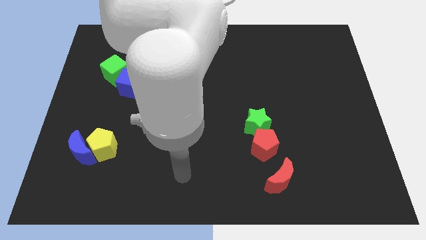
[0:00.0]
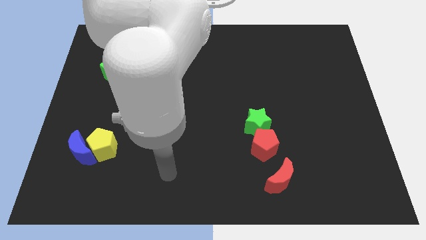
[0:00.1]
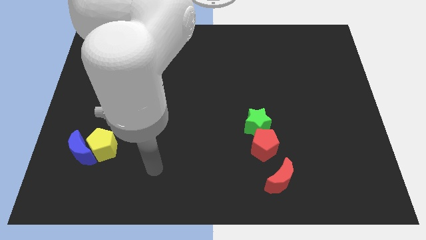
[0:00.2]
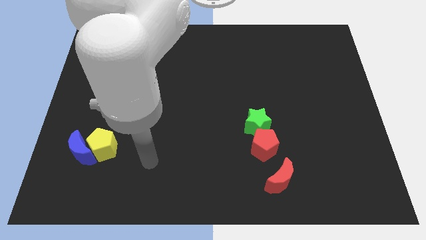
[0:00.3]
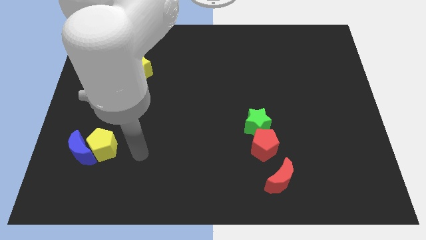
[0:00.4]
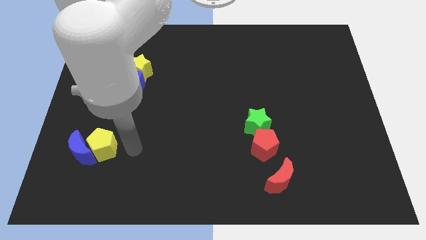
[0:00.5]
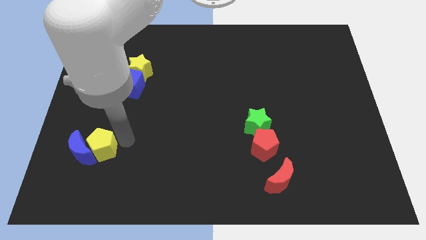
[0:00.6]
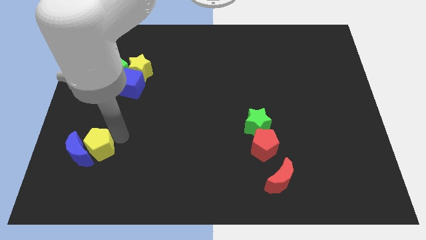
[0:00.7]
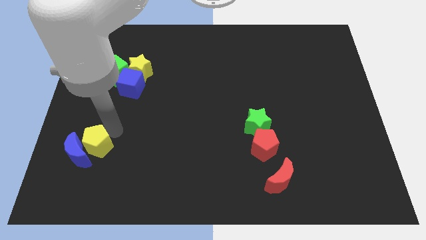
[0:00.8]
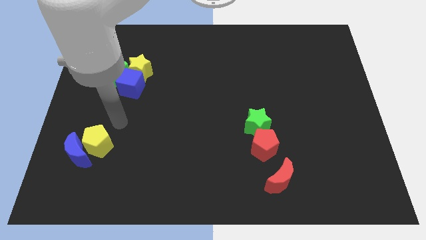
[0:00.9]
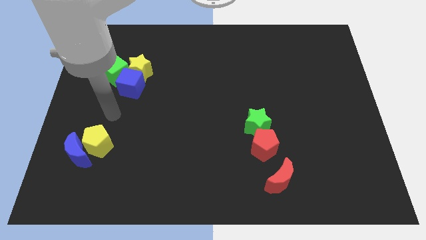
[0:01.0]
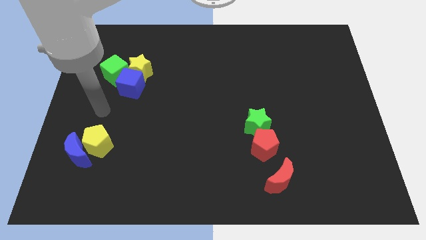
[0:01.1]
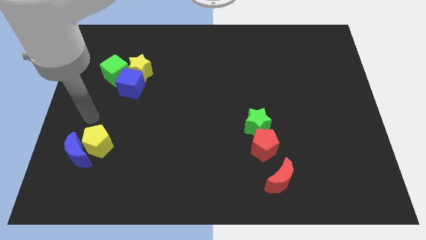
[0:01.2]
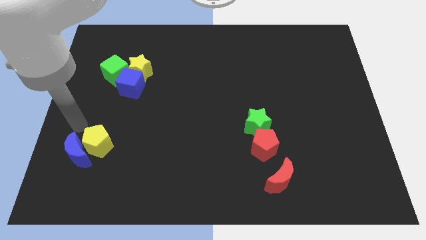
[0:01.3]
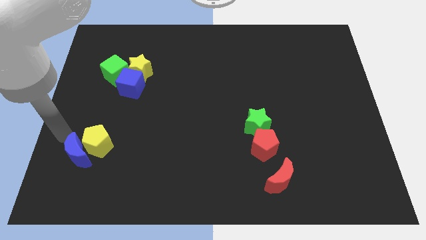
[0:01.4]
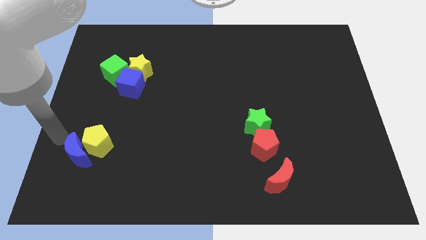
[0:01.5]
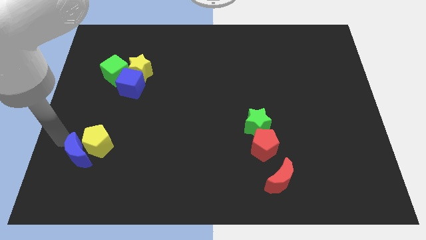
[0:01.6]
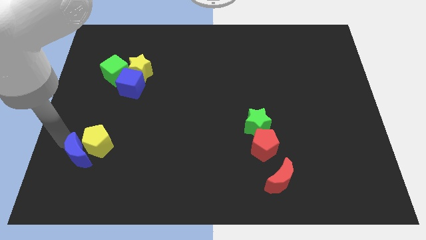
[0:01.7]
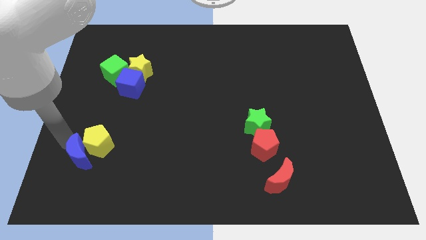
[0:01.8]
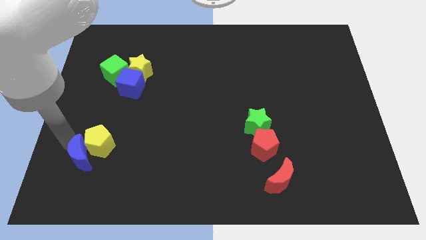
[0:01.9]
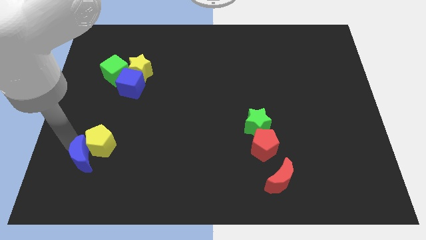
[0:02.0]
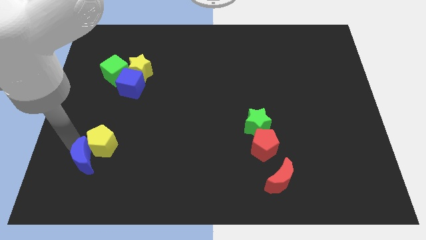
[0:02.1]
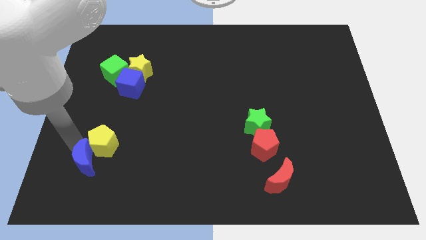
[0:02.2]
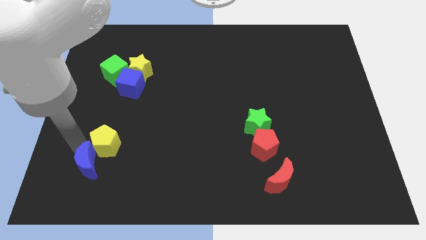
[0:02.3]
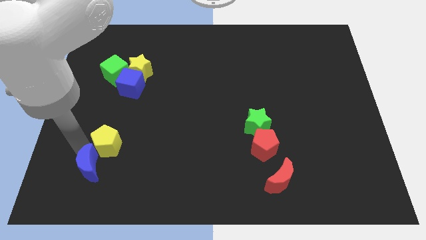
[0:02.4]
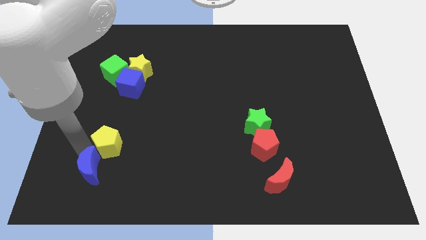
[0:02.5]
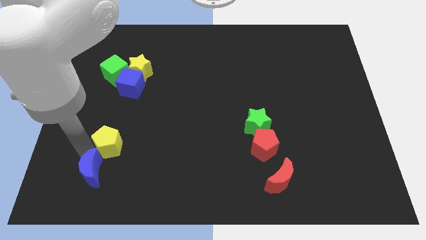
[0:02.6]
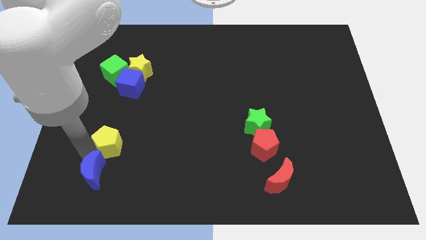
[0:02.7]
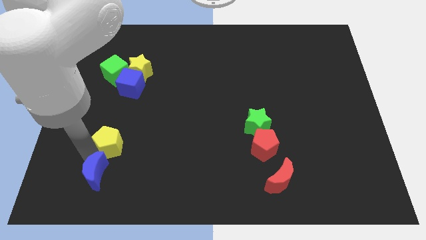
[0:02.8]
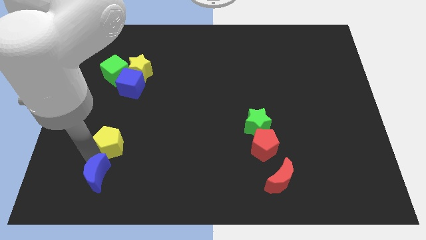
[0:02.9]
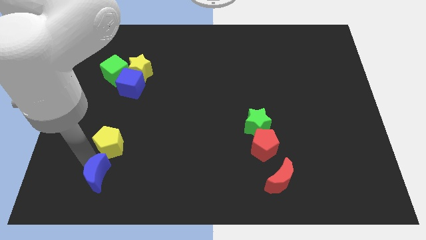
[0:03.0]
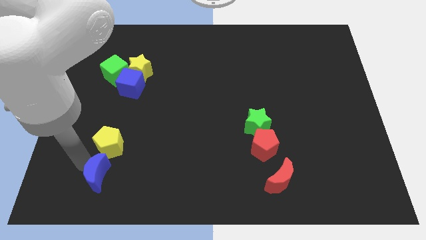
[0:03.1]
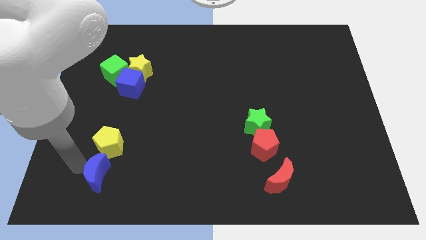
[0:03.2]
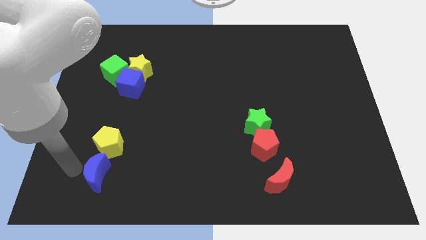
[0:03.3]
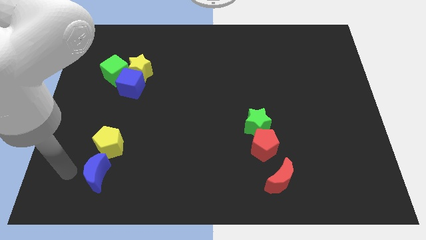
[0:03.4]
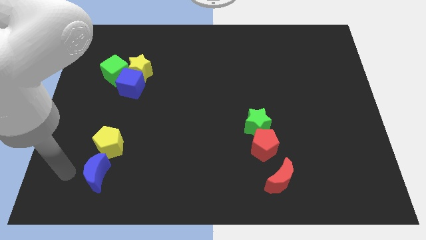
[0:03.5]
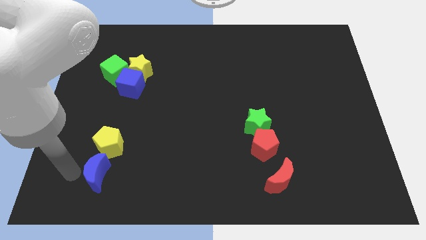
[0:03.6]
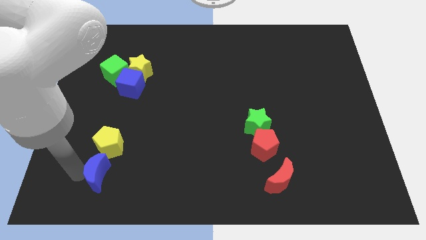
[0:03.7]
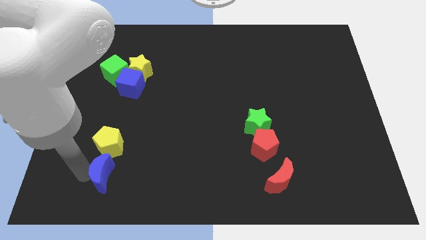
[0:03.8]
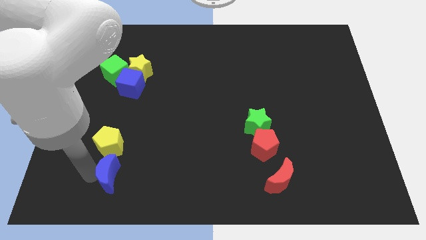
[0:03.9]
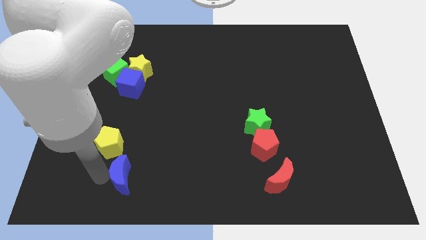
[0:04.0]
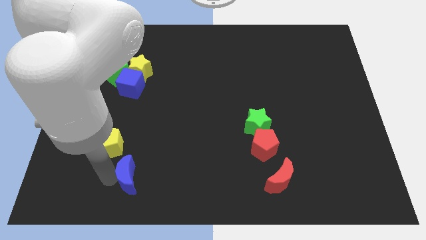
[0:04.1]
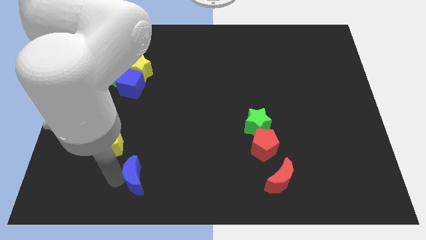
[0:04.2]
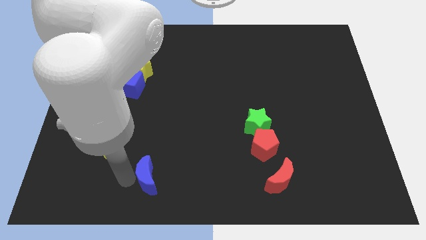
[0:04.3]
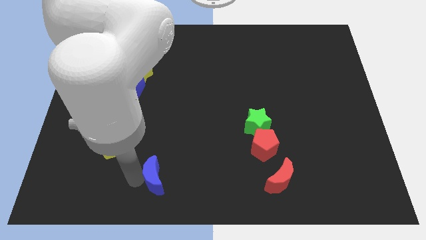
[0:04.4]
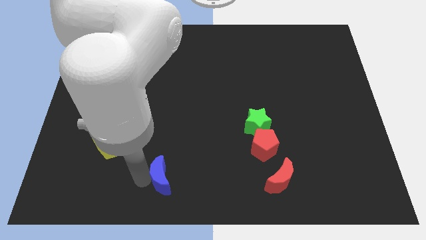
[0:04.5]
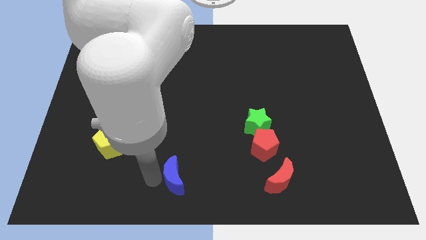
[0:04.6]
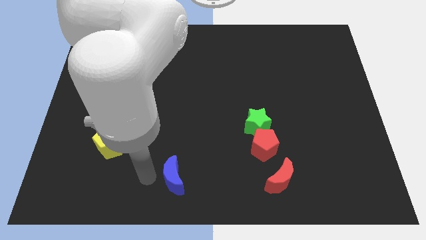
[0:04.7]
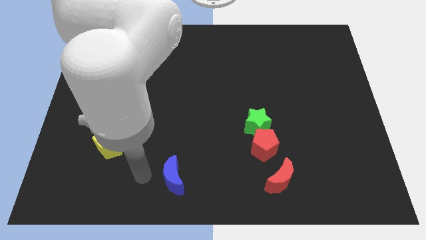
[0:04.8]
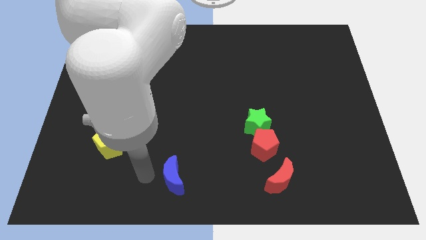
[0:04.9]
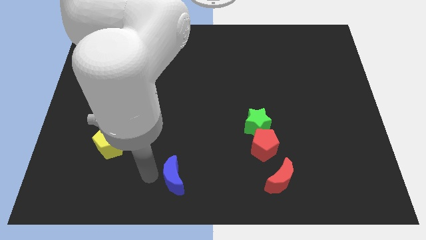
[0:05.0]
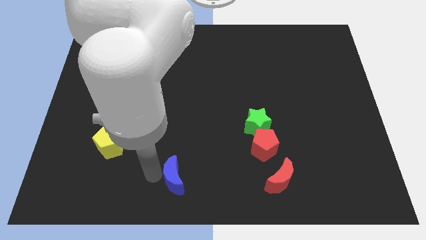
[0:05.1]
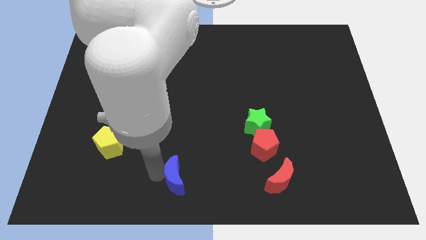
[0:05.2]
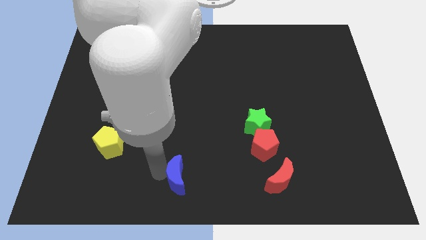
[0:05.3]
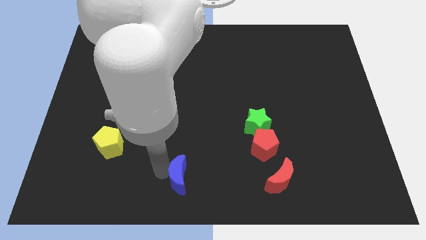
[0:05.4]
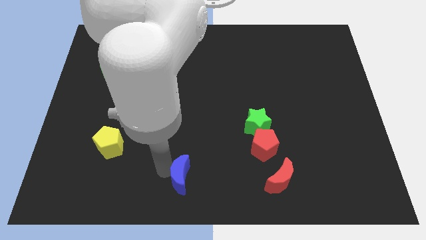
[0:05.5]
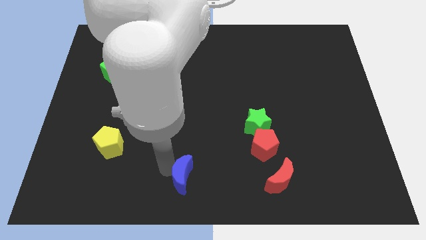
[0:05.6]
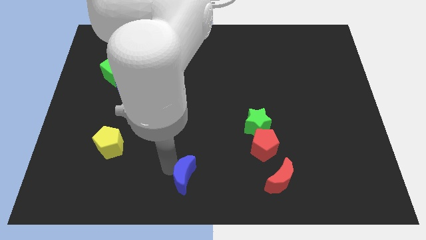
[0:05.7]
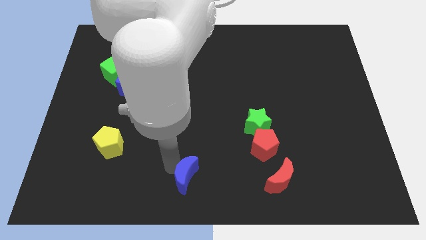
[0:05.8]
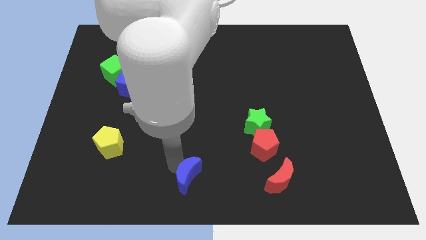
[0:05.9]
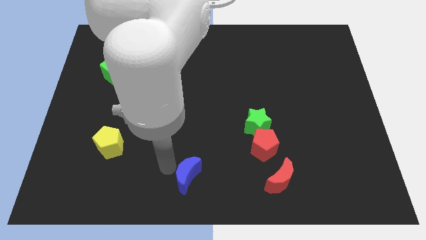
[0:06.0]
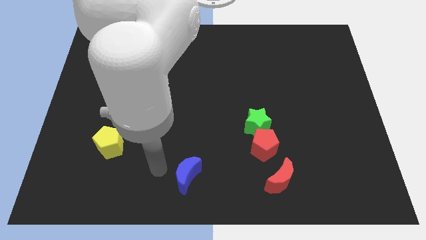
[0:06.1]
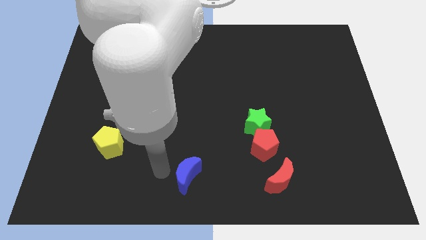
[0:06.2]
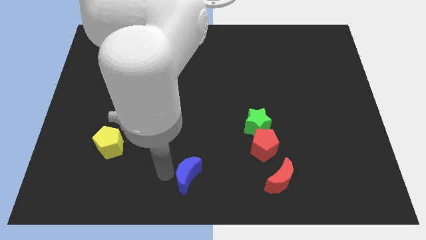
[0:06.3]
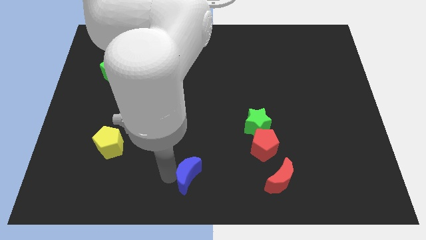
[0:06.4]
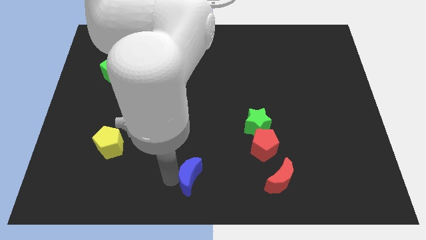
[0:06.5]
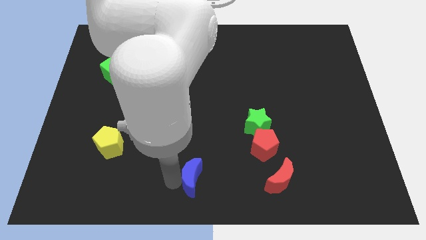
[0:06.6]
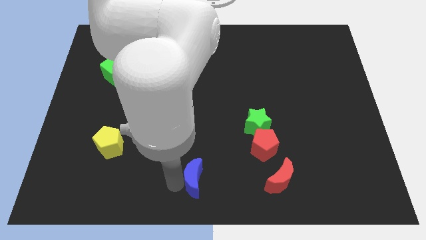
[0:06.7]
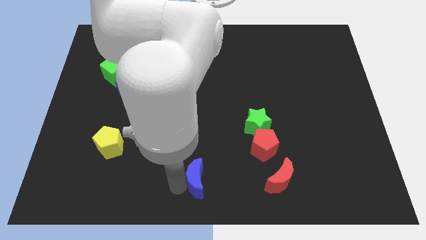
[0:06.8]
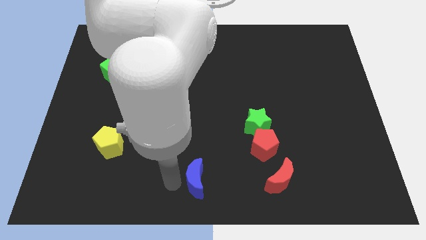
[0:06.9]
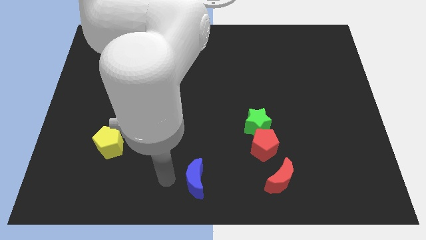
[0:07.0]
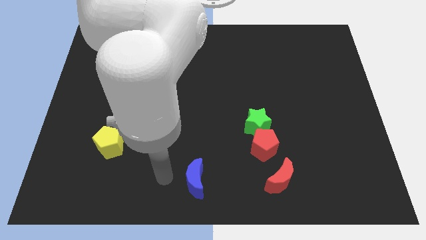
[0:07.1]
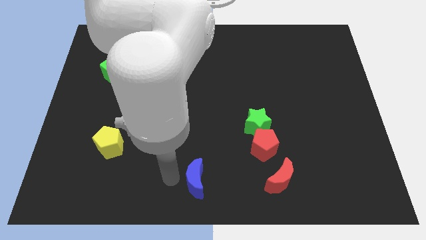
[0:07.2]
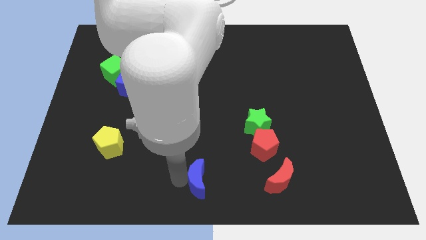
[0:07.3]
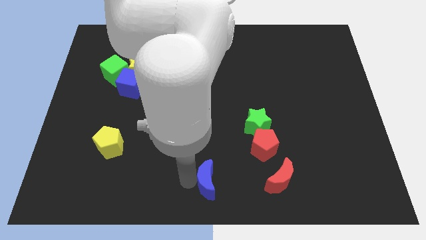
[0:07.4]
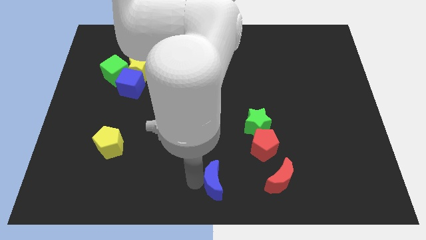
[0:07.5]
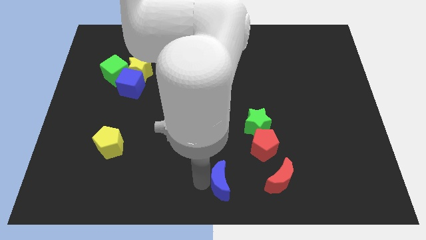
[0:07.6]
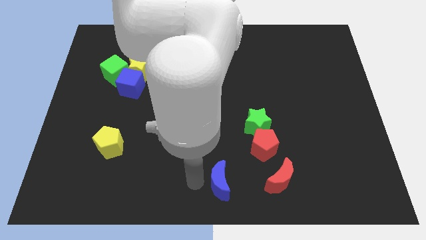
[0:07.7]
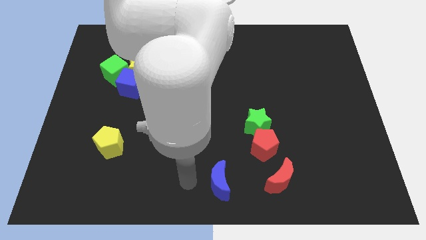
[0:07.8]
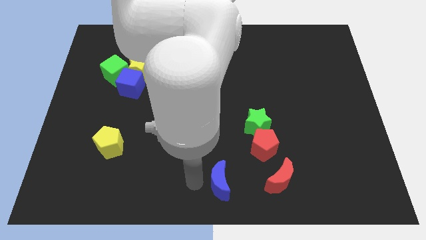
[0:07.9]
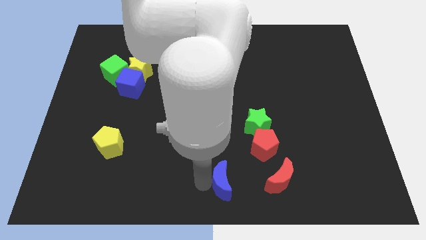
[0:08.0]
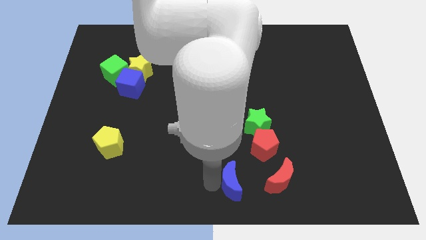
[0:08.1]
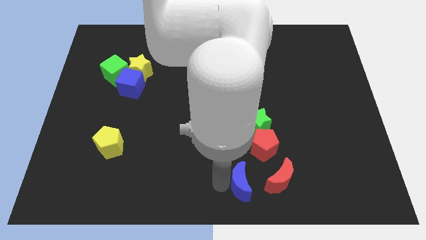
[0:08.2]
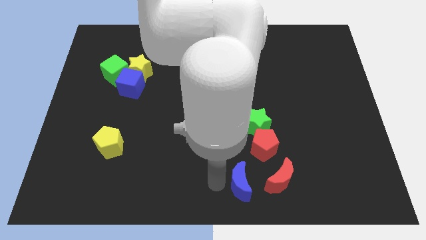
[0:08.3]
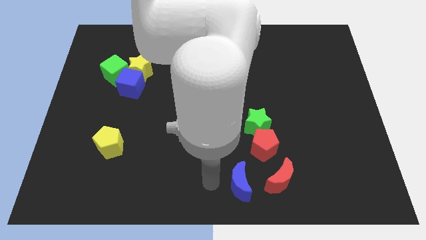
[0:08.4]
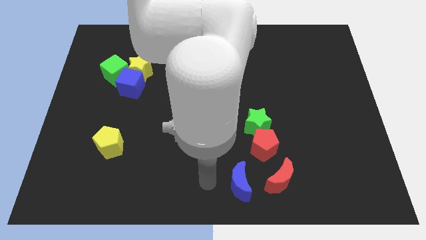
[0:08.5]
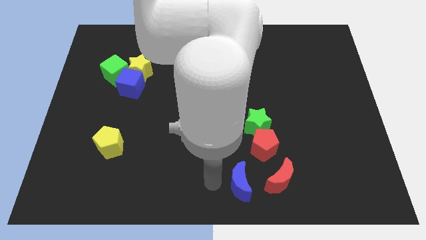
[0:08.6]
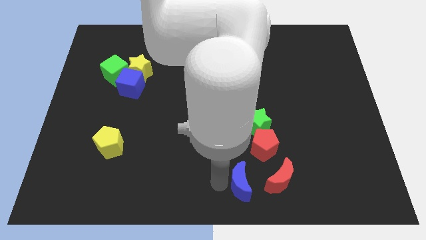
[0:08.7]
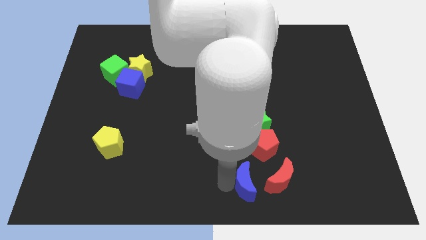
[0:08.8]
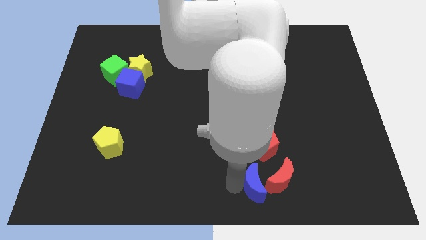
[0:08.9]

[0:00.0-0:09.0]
move the blue moon close to the red moon
